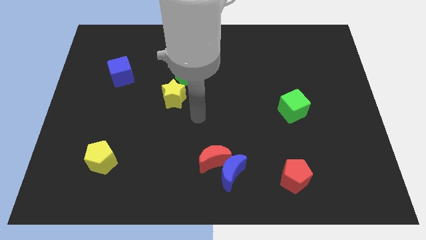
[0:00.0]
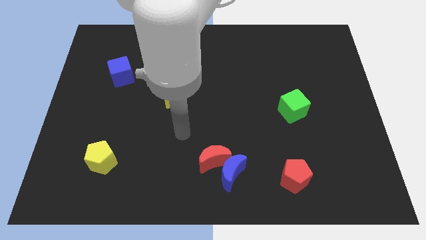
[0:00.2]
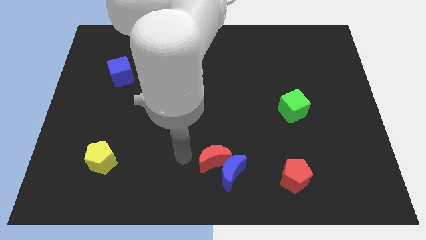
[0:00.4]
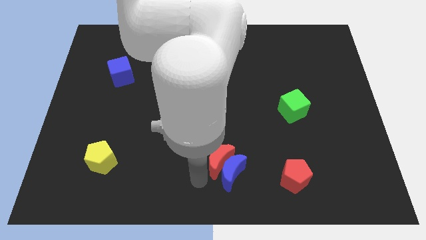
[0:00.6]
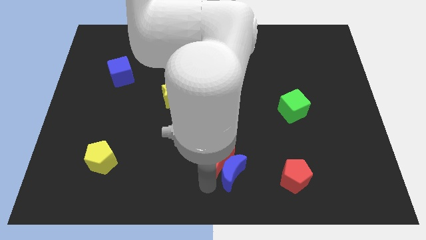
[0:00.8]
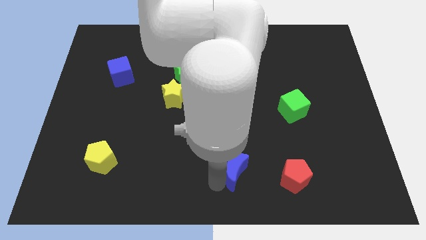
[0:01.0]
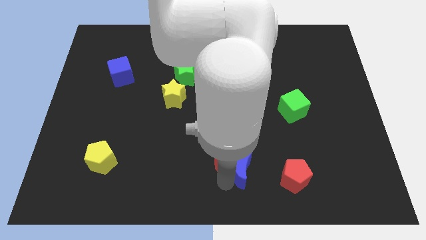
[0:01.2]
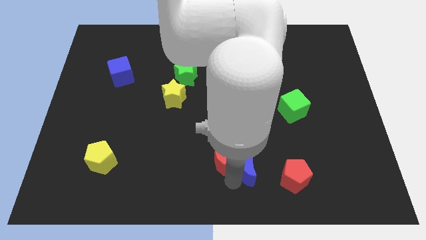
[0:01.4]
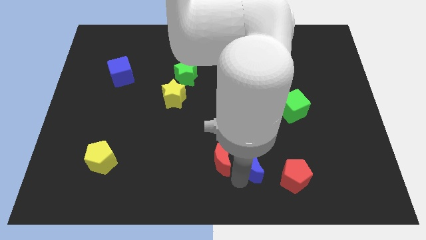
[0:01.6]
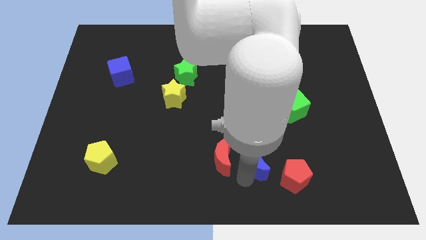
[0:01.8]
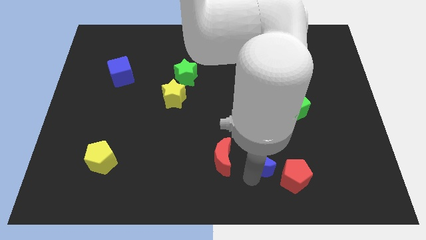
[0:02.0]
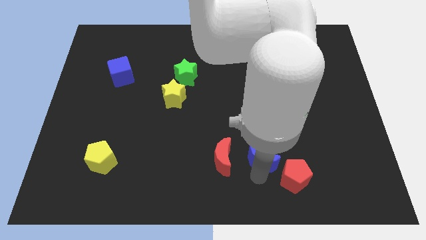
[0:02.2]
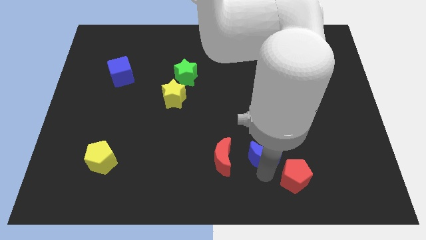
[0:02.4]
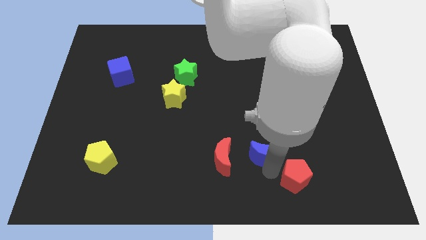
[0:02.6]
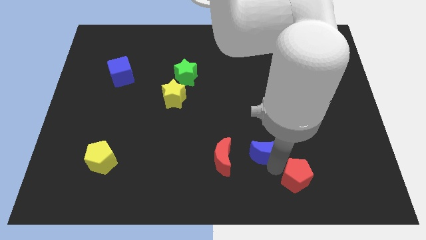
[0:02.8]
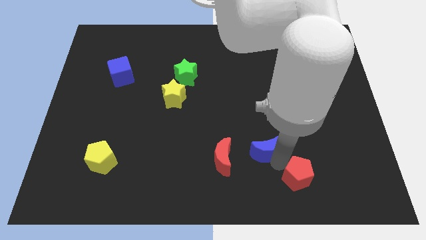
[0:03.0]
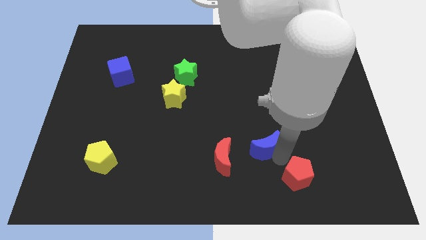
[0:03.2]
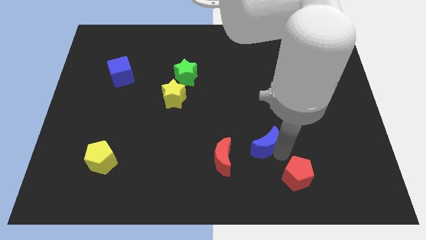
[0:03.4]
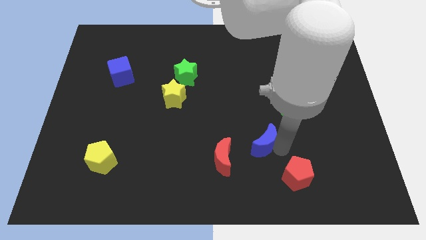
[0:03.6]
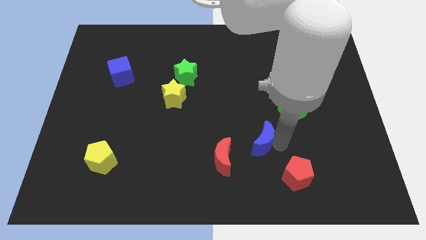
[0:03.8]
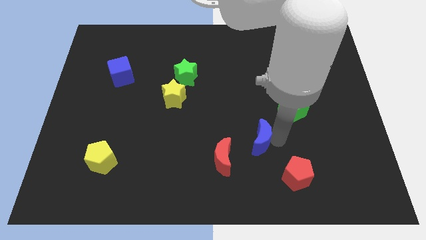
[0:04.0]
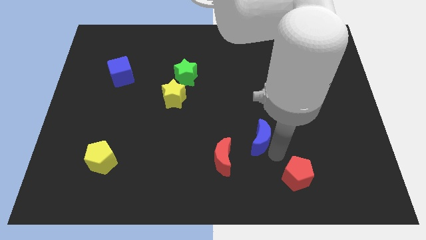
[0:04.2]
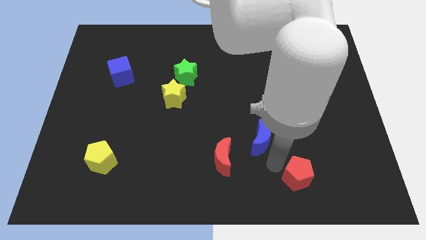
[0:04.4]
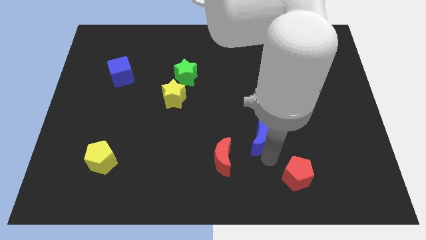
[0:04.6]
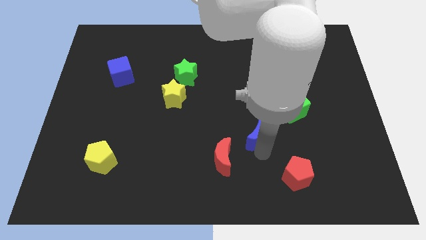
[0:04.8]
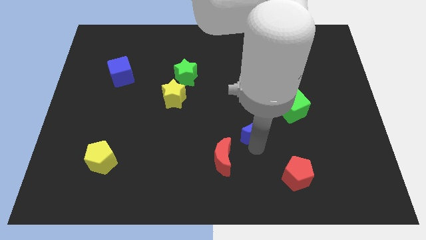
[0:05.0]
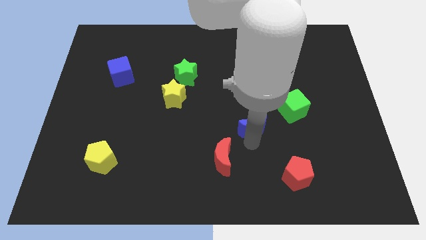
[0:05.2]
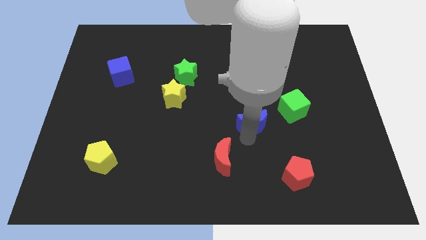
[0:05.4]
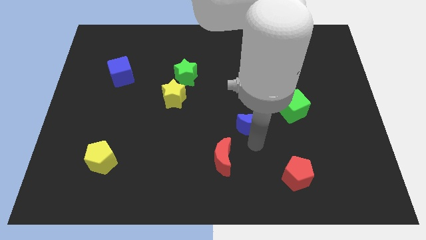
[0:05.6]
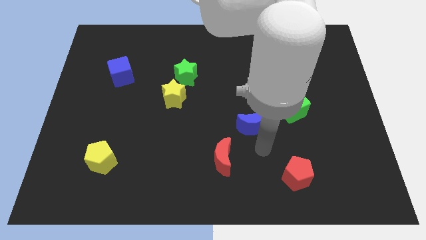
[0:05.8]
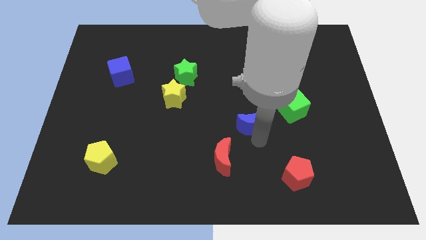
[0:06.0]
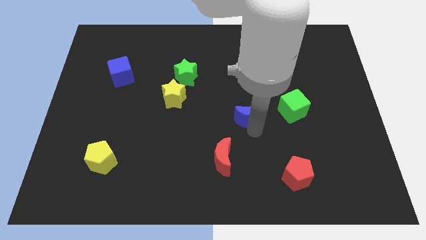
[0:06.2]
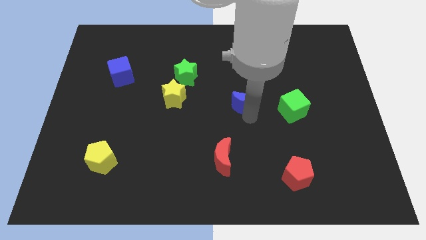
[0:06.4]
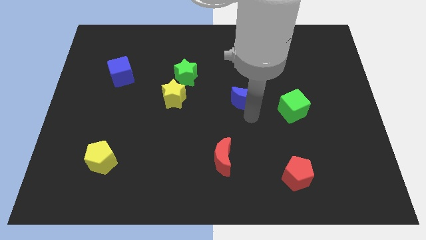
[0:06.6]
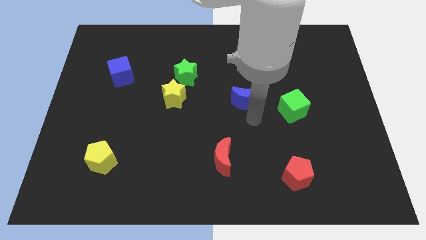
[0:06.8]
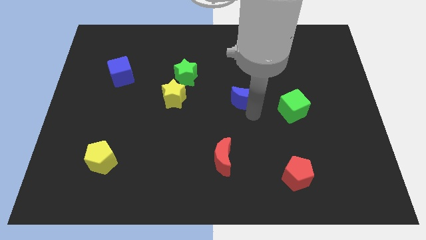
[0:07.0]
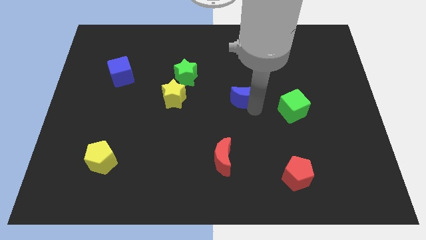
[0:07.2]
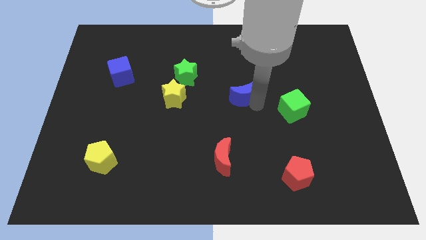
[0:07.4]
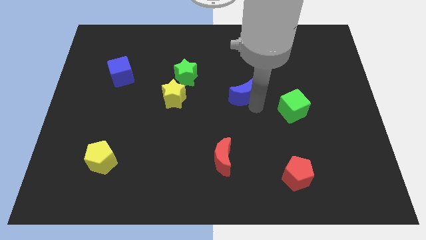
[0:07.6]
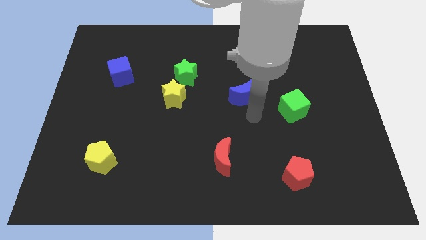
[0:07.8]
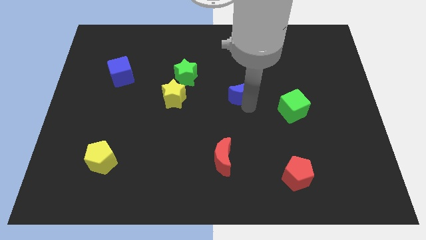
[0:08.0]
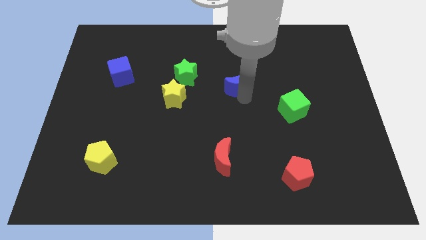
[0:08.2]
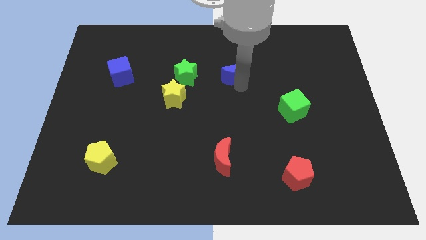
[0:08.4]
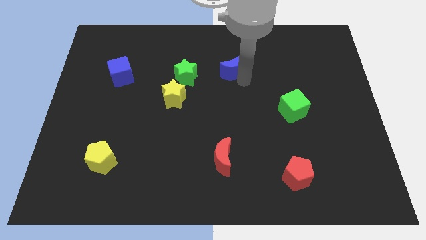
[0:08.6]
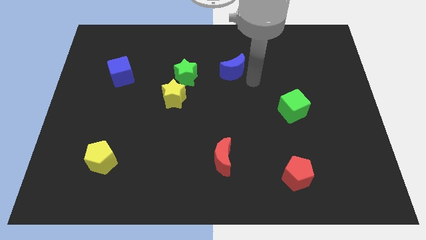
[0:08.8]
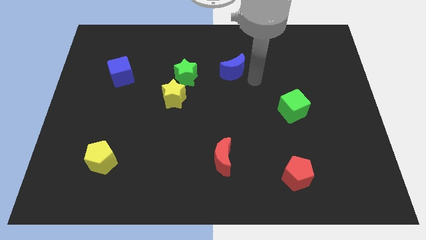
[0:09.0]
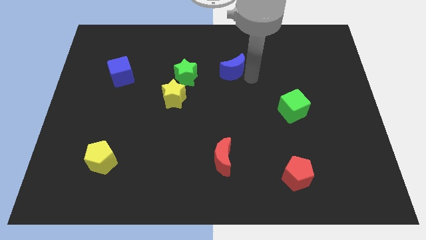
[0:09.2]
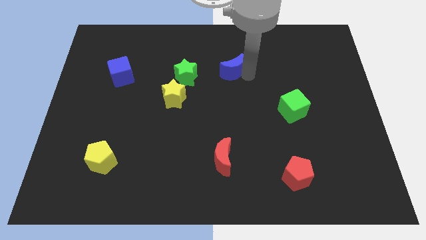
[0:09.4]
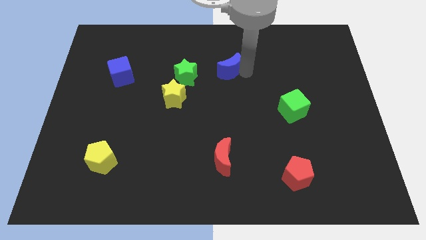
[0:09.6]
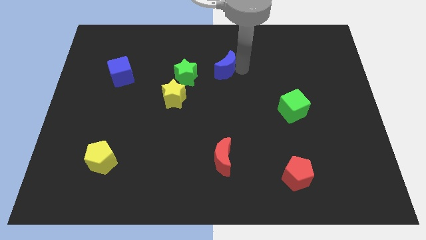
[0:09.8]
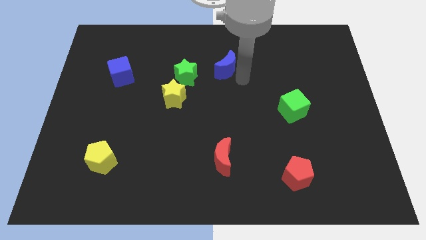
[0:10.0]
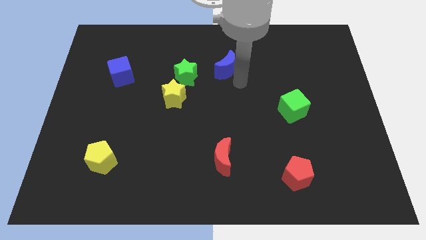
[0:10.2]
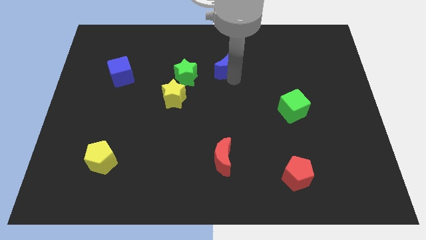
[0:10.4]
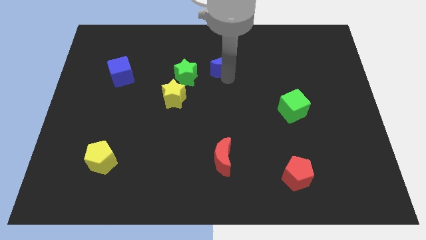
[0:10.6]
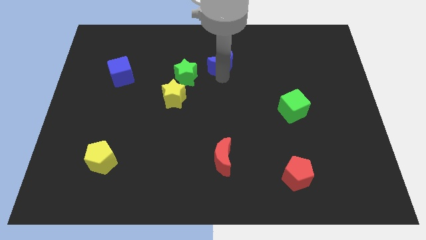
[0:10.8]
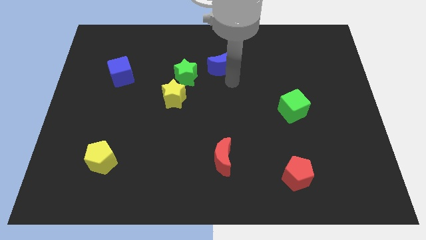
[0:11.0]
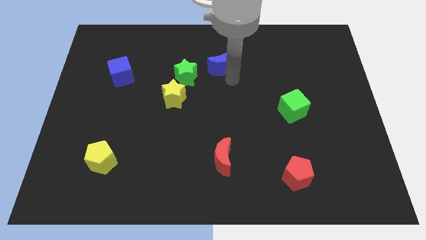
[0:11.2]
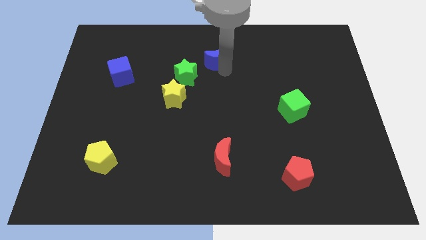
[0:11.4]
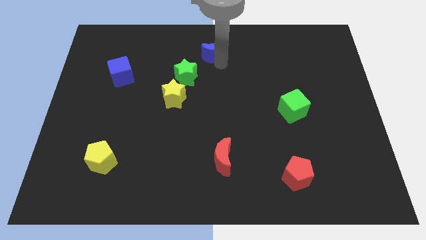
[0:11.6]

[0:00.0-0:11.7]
slide the blue moon to the top
